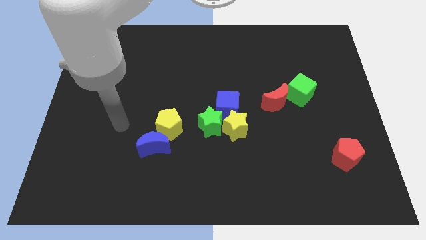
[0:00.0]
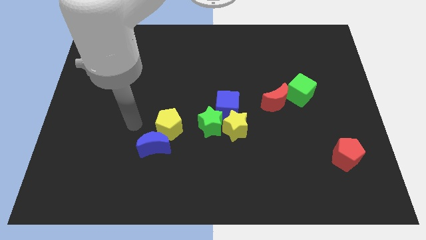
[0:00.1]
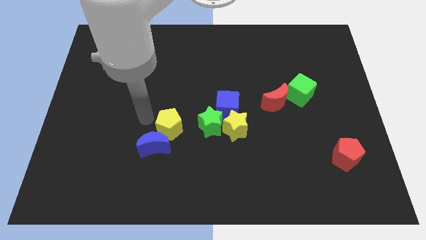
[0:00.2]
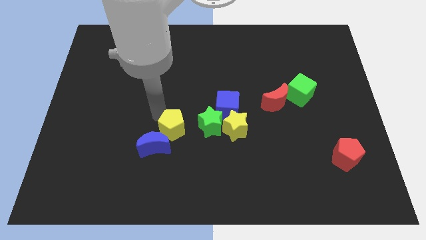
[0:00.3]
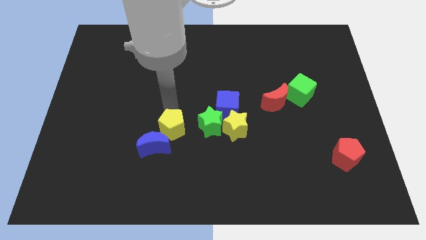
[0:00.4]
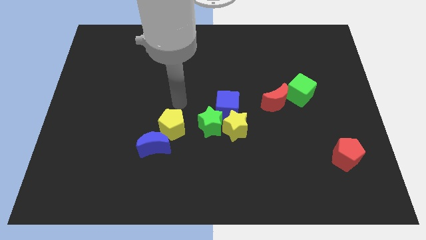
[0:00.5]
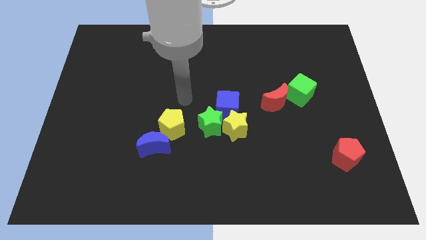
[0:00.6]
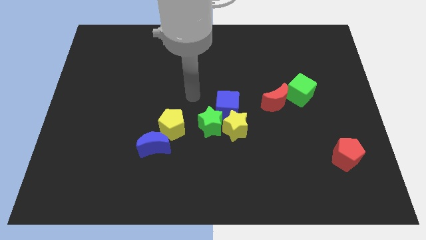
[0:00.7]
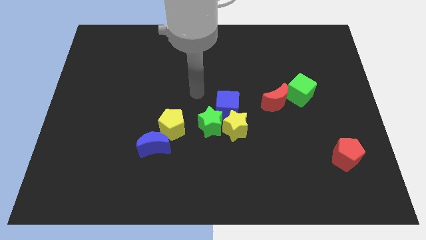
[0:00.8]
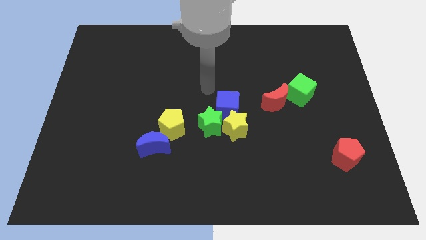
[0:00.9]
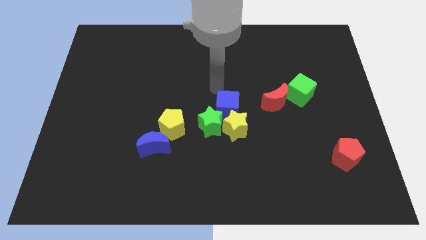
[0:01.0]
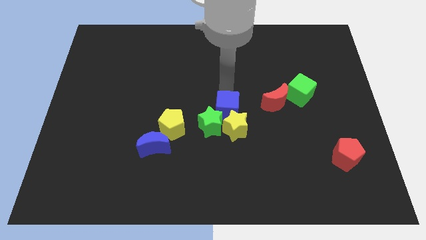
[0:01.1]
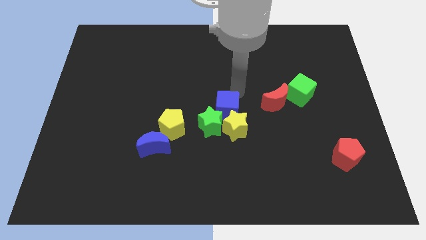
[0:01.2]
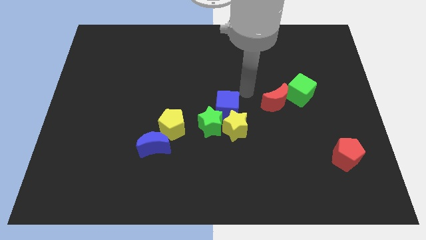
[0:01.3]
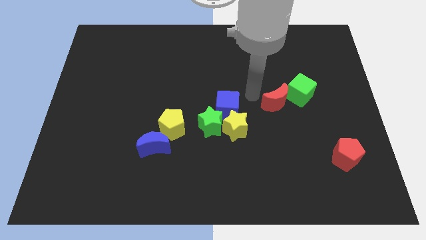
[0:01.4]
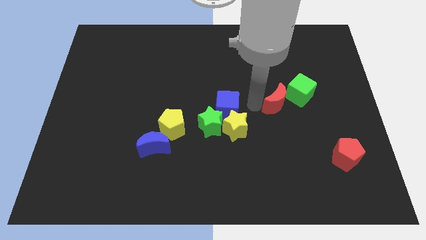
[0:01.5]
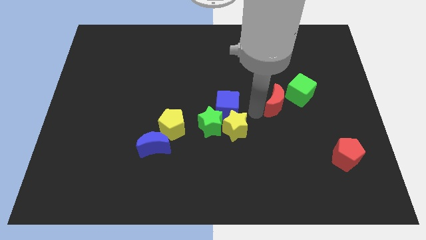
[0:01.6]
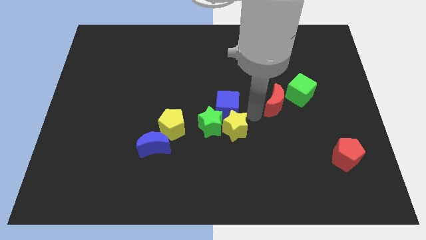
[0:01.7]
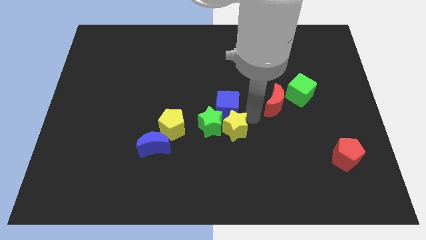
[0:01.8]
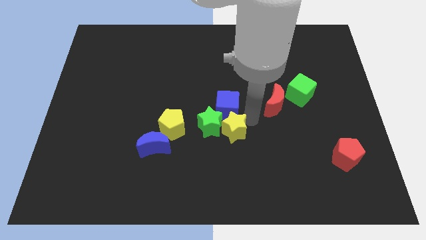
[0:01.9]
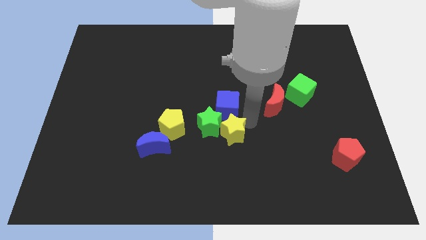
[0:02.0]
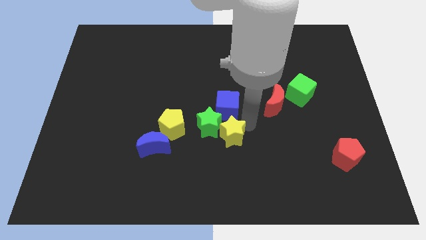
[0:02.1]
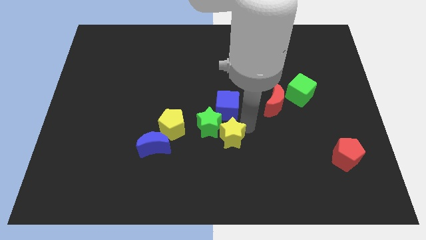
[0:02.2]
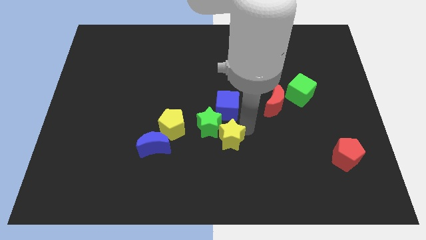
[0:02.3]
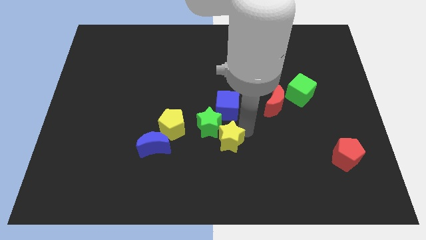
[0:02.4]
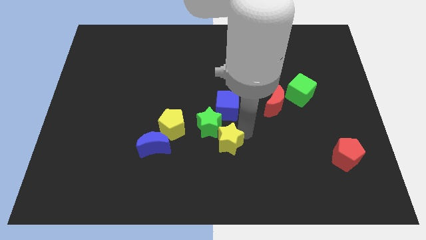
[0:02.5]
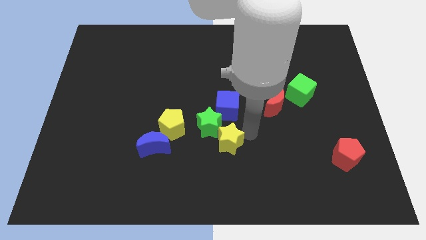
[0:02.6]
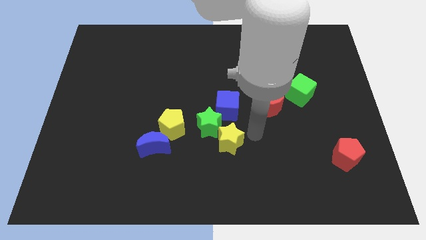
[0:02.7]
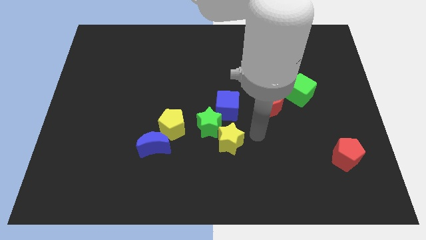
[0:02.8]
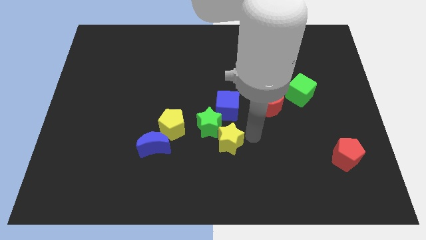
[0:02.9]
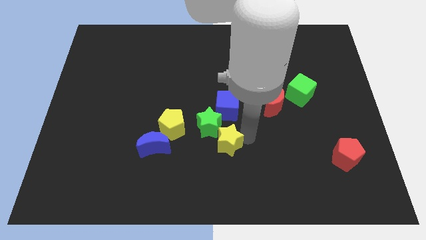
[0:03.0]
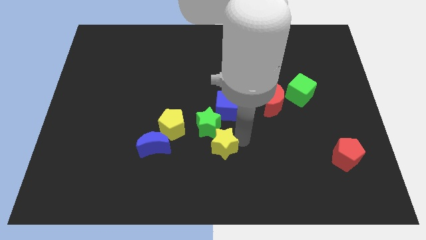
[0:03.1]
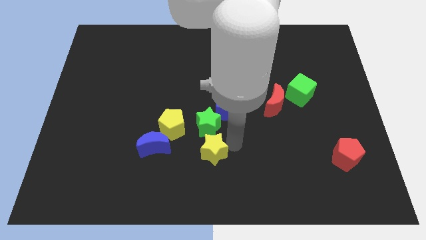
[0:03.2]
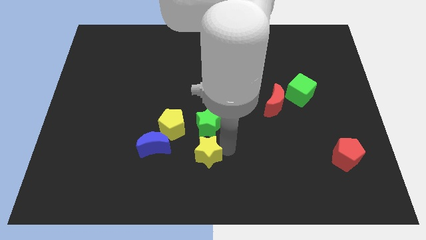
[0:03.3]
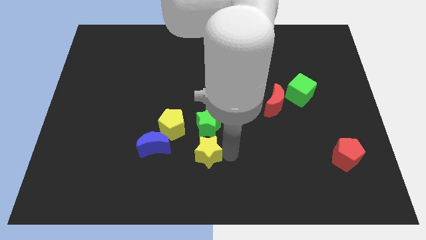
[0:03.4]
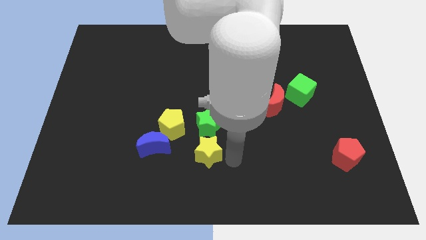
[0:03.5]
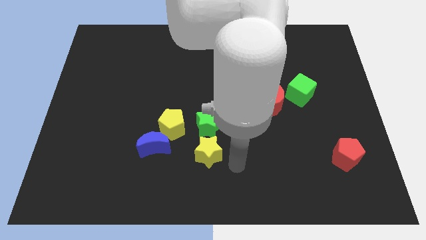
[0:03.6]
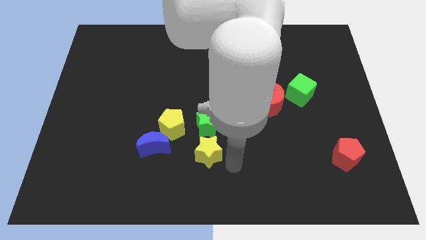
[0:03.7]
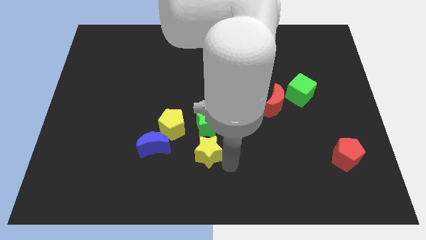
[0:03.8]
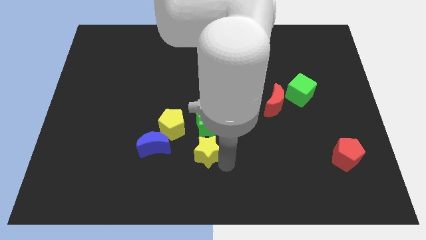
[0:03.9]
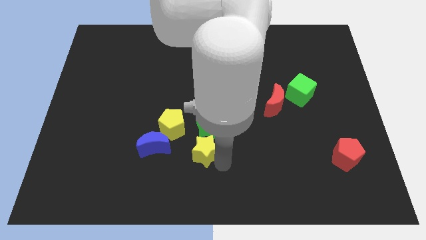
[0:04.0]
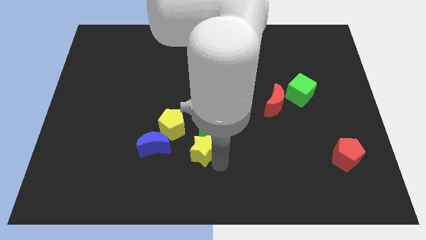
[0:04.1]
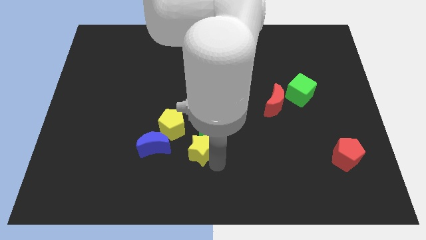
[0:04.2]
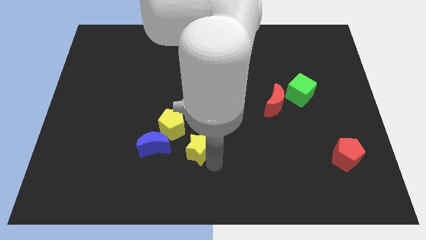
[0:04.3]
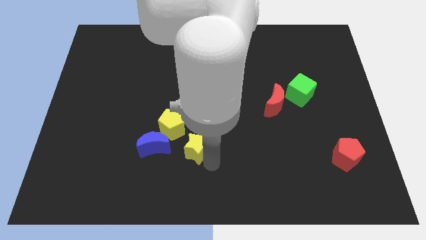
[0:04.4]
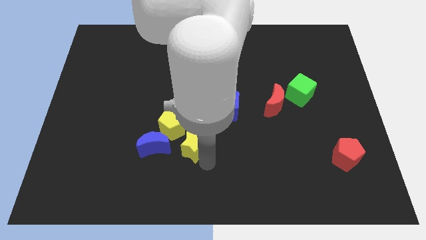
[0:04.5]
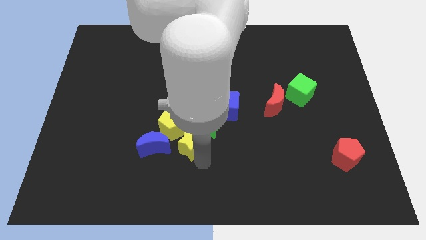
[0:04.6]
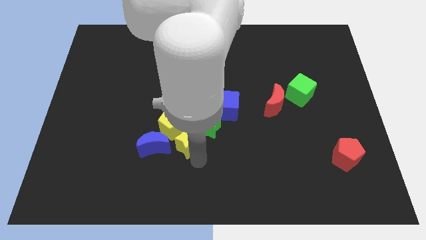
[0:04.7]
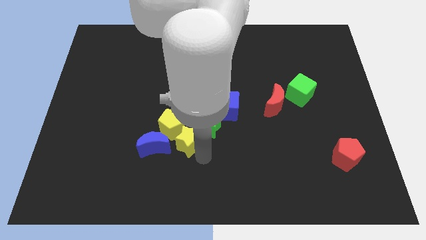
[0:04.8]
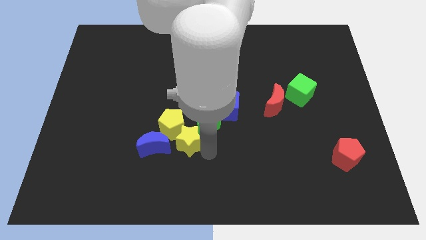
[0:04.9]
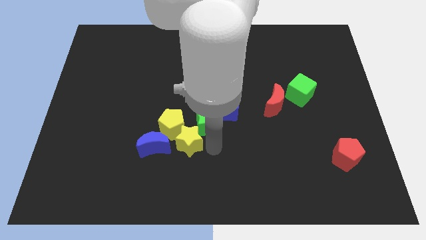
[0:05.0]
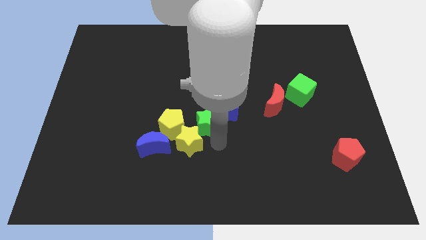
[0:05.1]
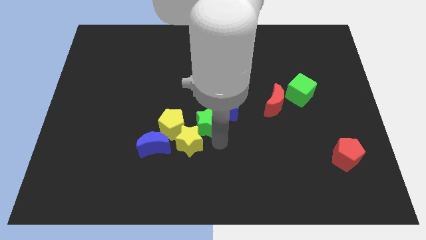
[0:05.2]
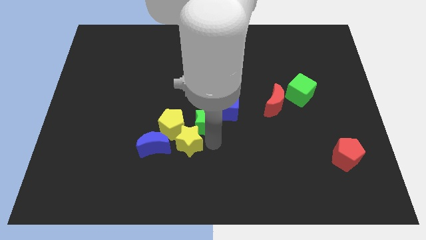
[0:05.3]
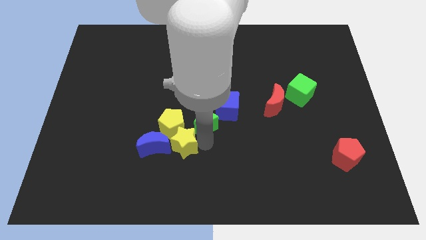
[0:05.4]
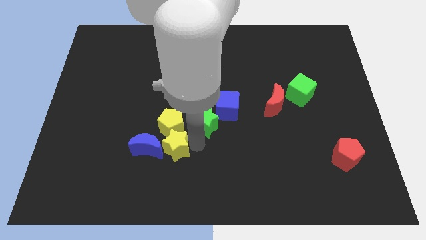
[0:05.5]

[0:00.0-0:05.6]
push the yellow star to the blue moon

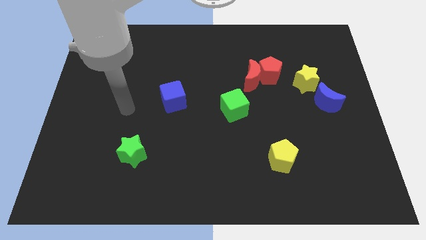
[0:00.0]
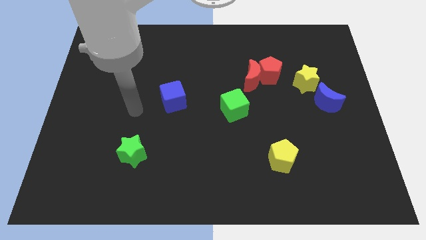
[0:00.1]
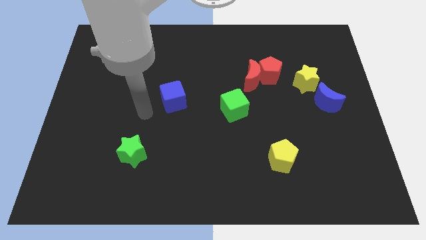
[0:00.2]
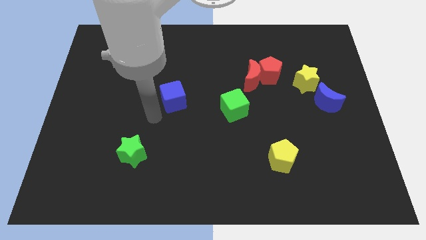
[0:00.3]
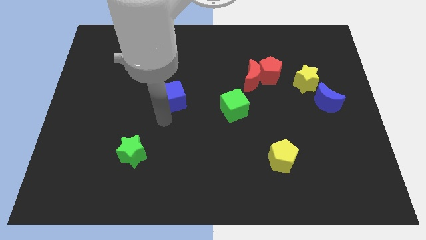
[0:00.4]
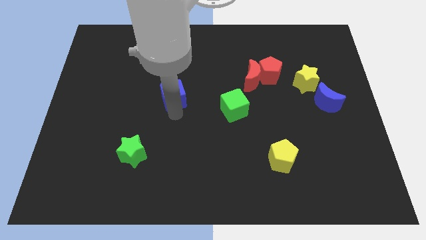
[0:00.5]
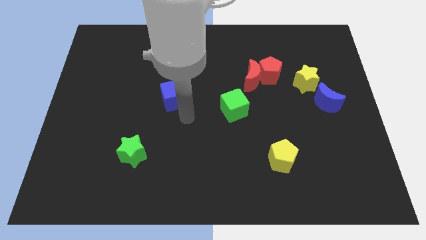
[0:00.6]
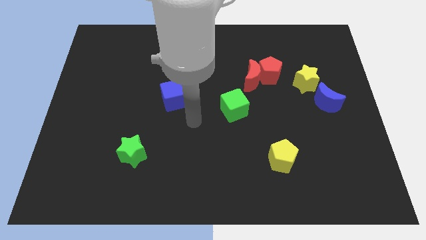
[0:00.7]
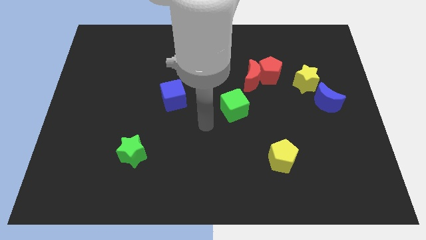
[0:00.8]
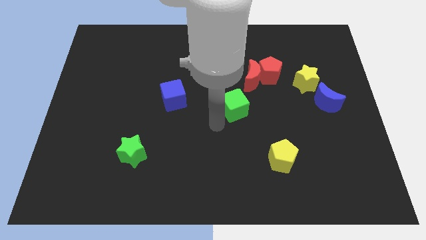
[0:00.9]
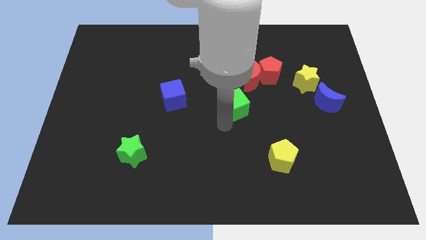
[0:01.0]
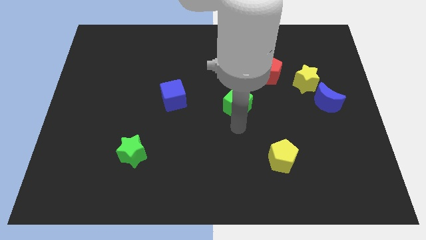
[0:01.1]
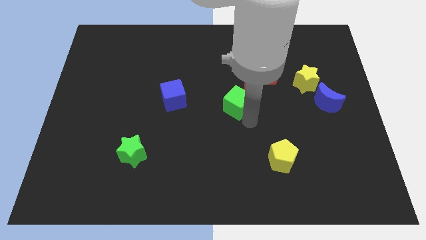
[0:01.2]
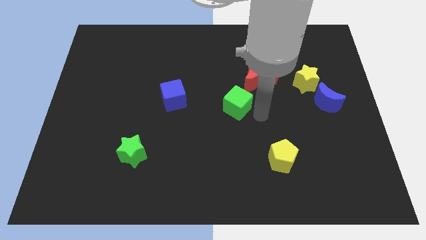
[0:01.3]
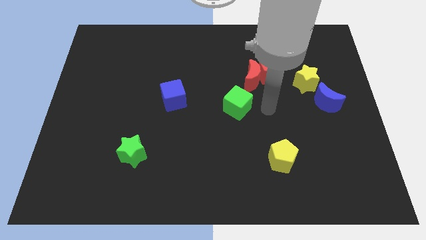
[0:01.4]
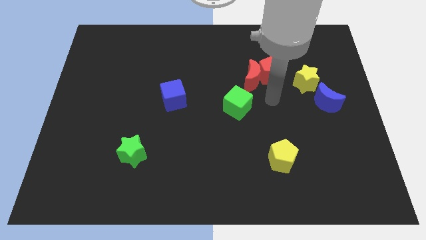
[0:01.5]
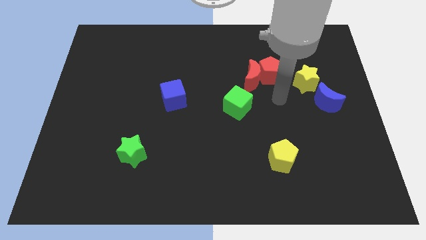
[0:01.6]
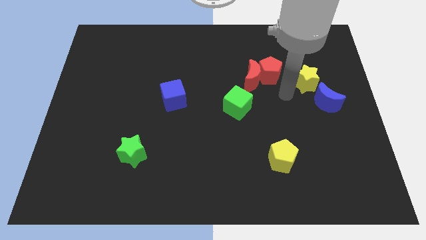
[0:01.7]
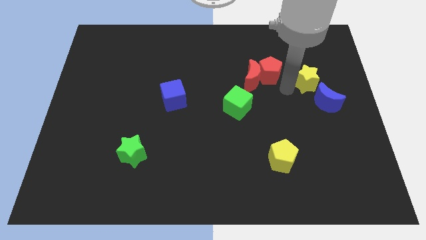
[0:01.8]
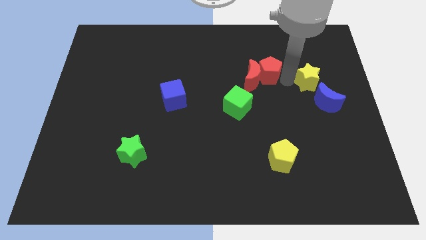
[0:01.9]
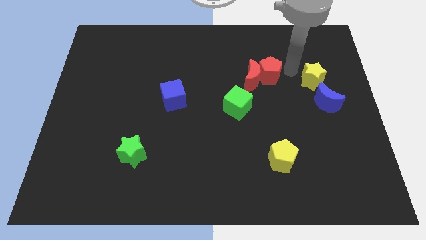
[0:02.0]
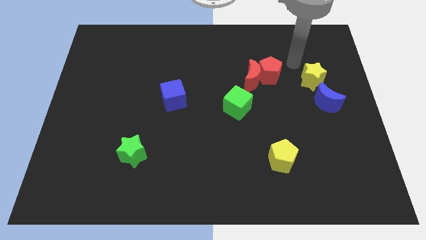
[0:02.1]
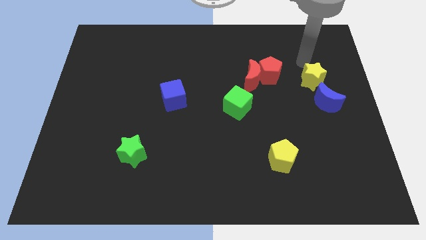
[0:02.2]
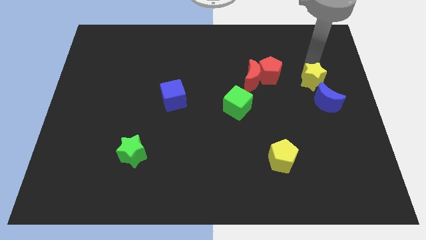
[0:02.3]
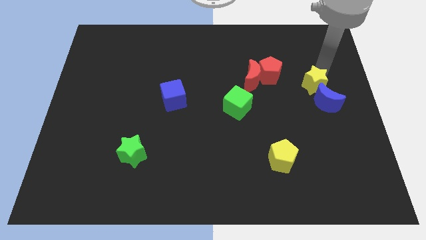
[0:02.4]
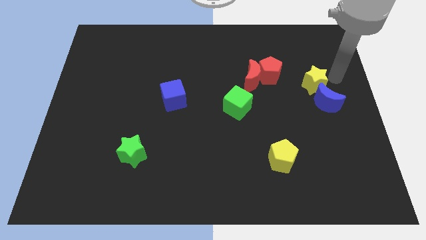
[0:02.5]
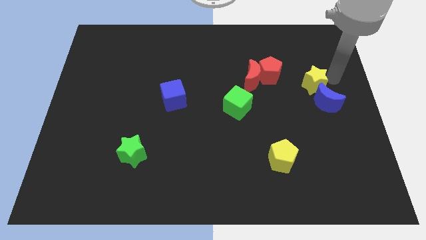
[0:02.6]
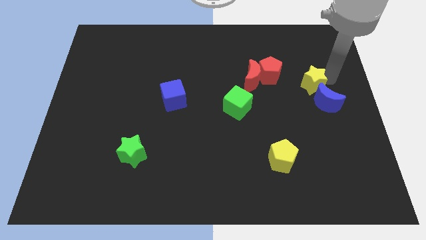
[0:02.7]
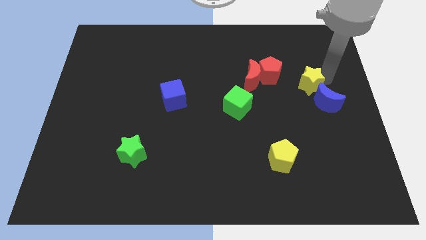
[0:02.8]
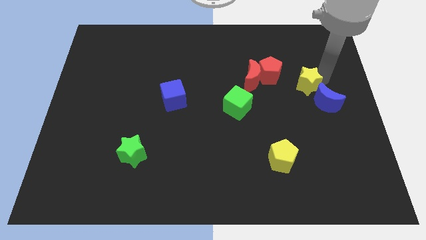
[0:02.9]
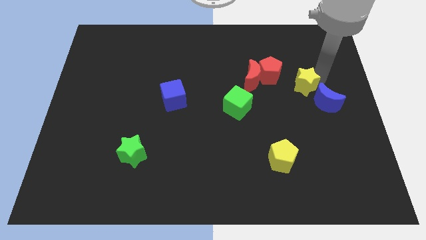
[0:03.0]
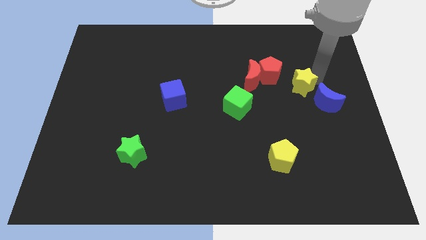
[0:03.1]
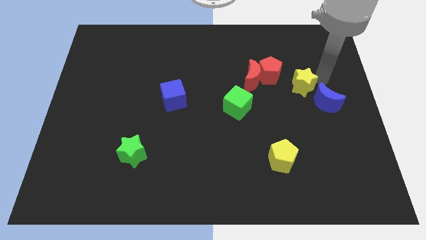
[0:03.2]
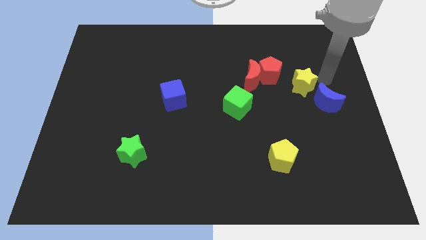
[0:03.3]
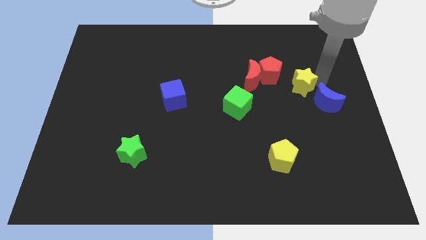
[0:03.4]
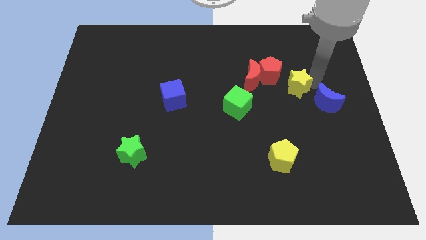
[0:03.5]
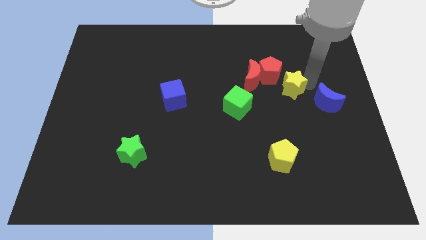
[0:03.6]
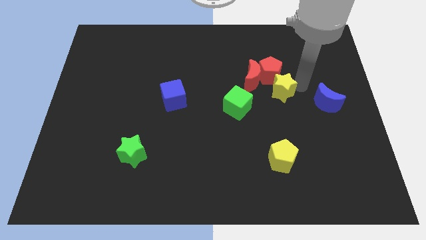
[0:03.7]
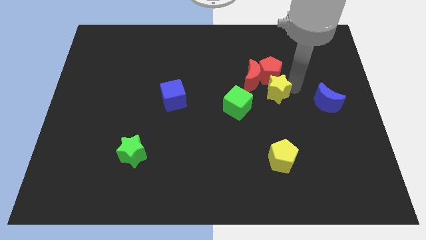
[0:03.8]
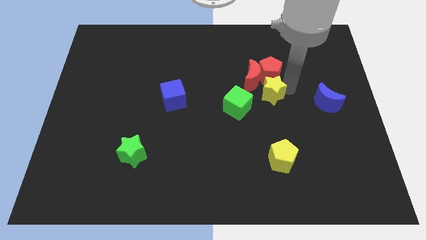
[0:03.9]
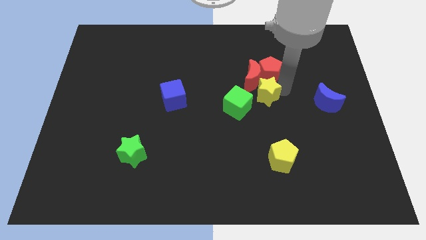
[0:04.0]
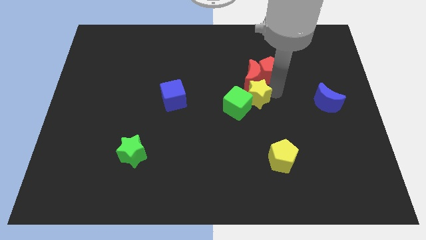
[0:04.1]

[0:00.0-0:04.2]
slide the yellow star close to the green cube
